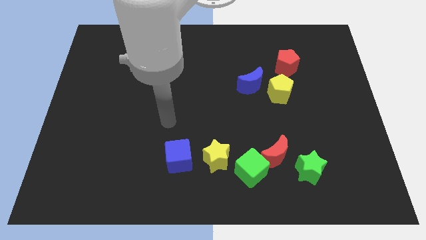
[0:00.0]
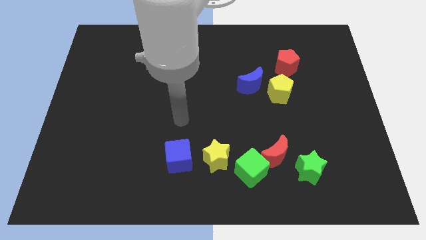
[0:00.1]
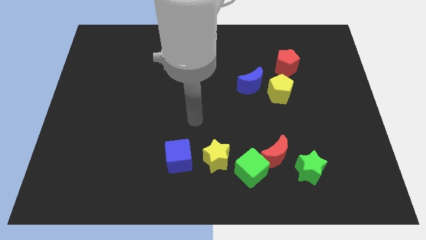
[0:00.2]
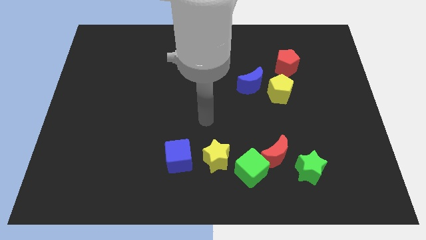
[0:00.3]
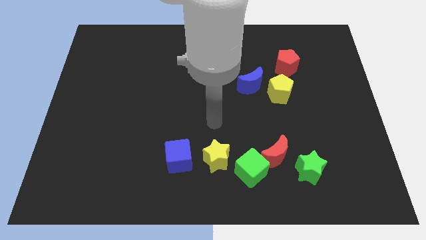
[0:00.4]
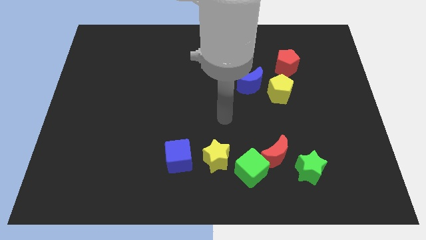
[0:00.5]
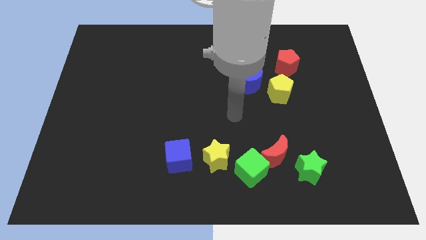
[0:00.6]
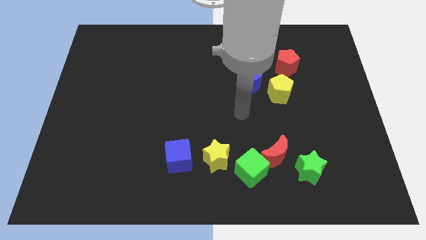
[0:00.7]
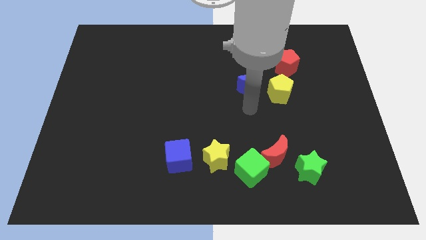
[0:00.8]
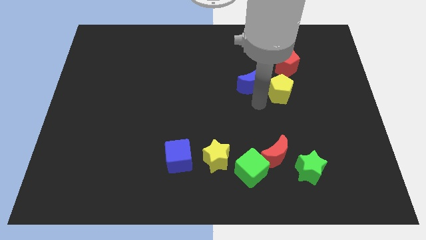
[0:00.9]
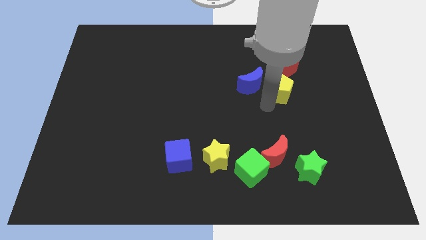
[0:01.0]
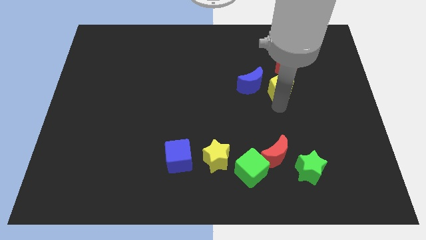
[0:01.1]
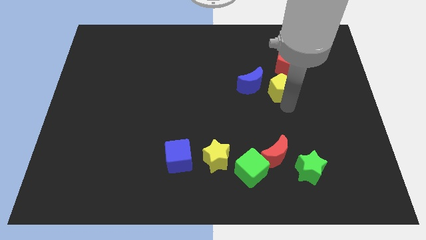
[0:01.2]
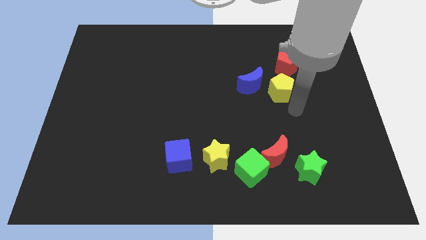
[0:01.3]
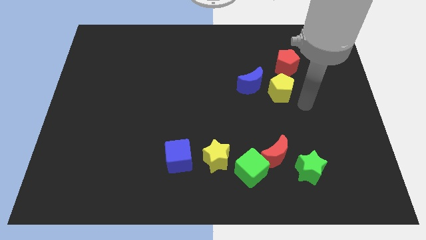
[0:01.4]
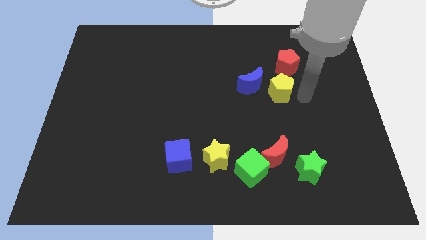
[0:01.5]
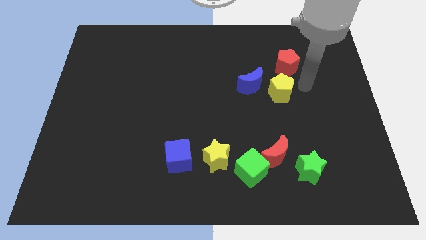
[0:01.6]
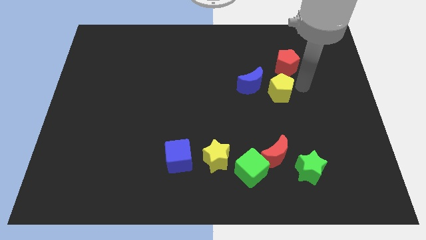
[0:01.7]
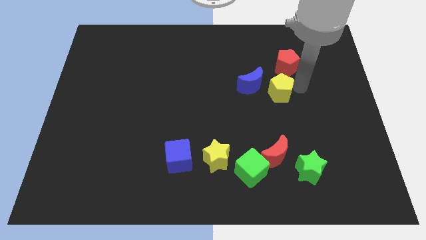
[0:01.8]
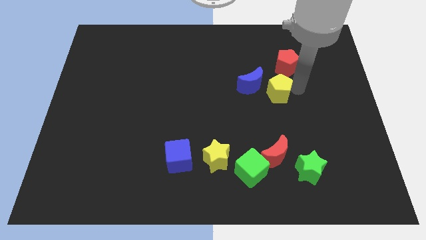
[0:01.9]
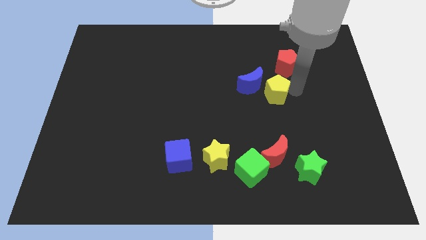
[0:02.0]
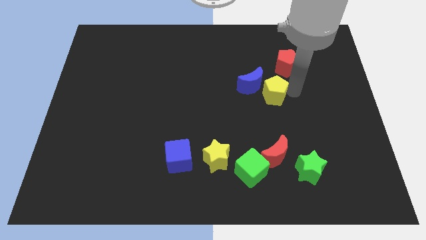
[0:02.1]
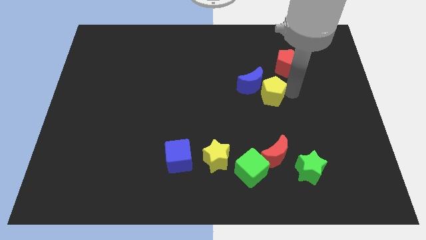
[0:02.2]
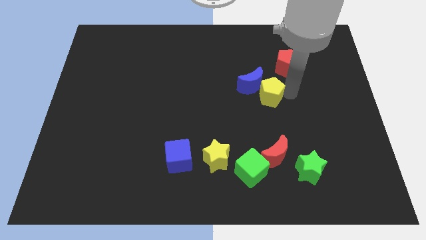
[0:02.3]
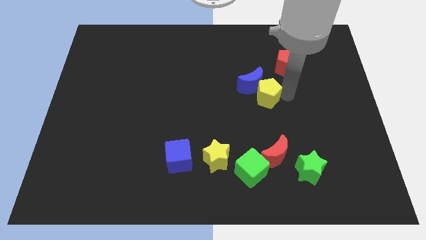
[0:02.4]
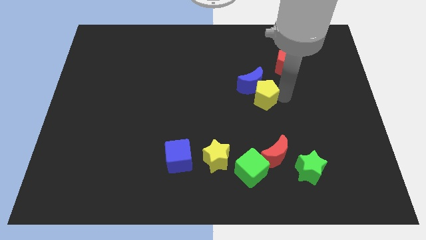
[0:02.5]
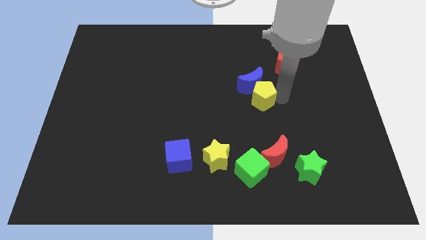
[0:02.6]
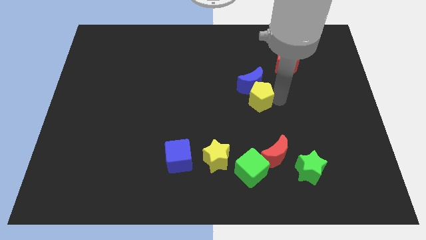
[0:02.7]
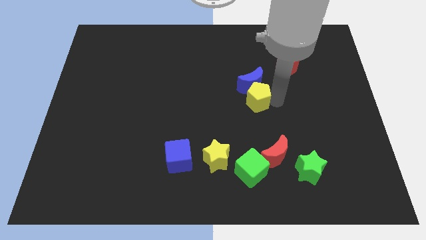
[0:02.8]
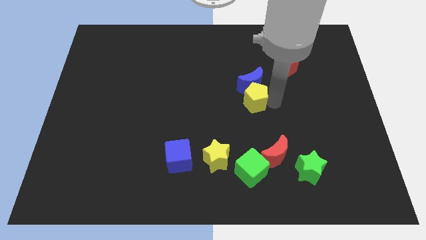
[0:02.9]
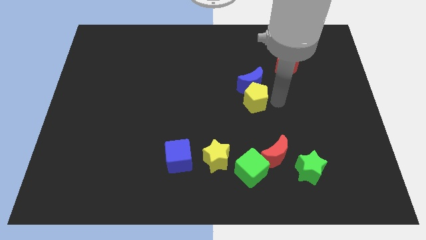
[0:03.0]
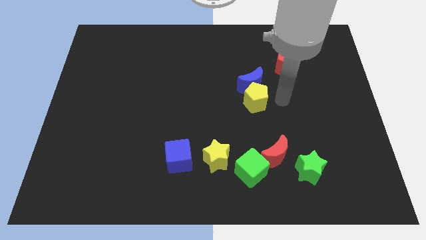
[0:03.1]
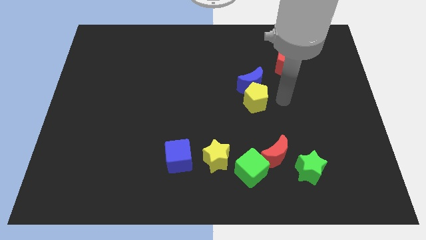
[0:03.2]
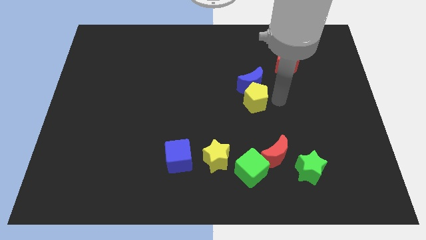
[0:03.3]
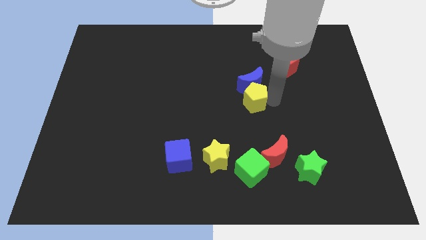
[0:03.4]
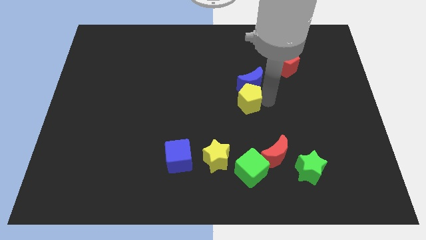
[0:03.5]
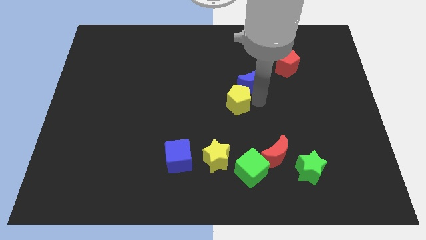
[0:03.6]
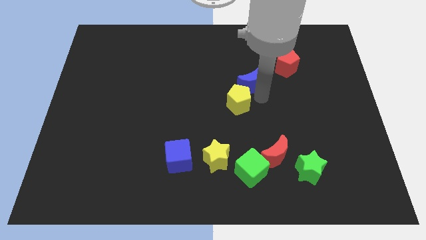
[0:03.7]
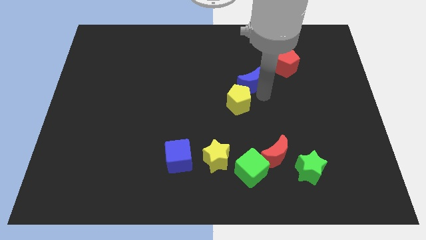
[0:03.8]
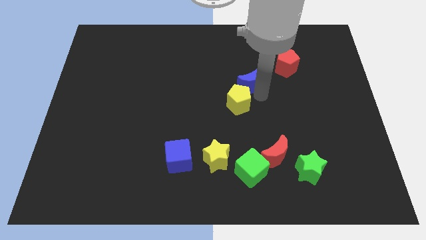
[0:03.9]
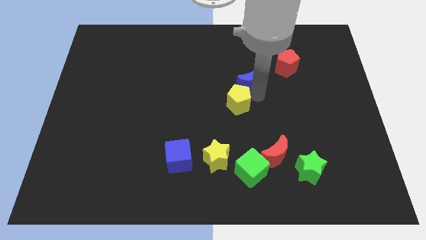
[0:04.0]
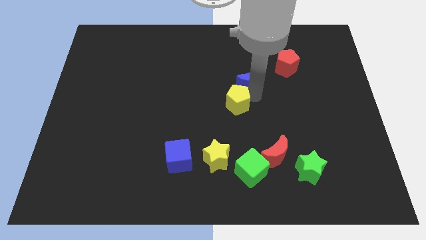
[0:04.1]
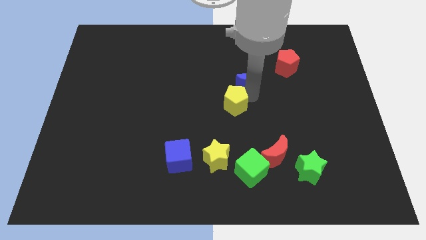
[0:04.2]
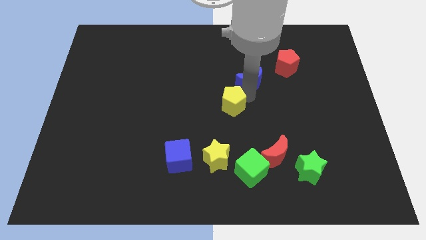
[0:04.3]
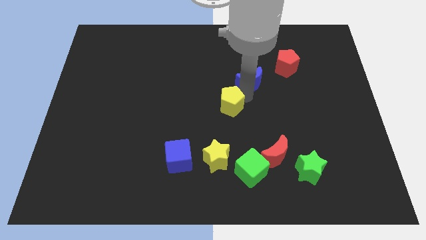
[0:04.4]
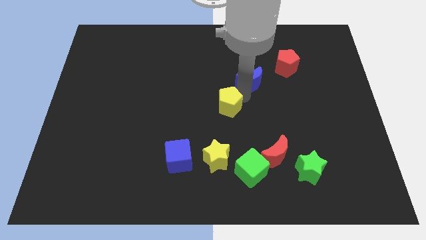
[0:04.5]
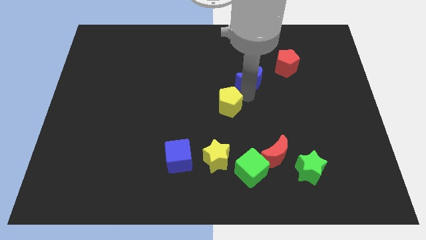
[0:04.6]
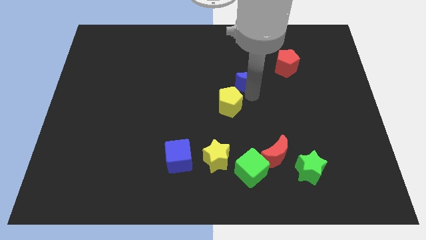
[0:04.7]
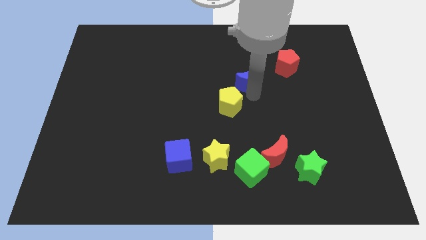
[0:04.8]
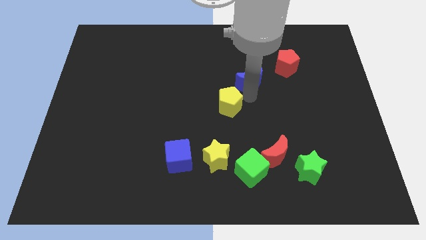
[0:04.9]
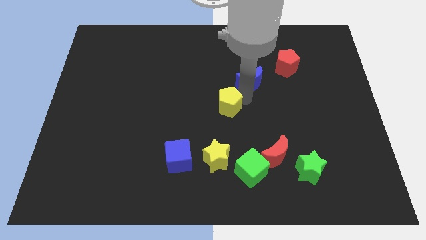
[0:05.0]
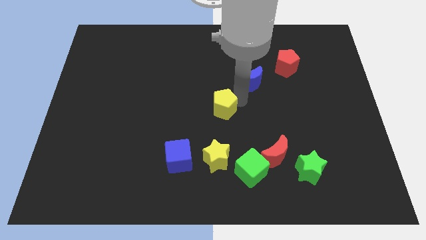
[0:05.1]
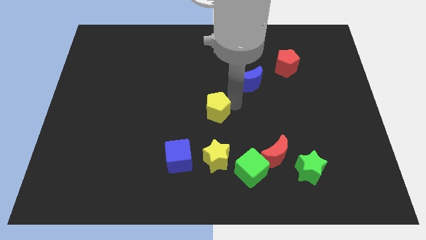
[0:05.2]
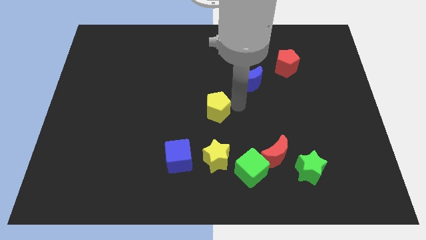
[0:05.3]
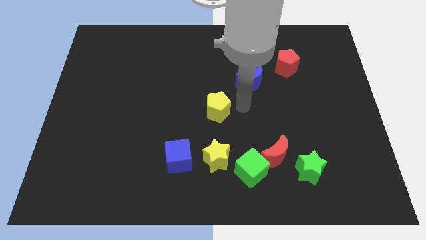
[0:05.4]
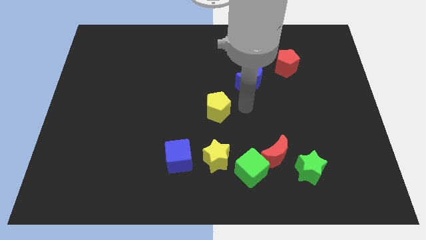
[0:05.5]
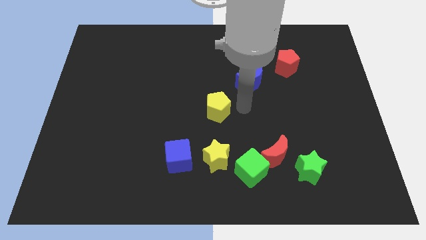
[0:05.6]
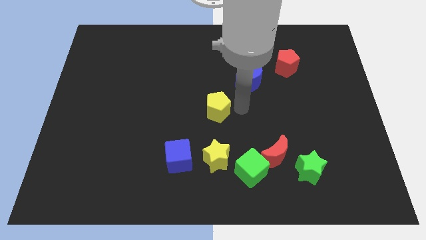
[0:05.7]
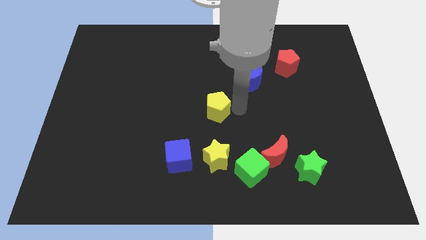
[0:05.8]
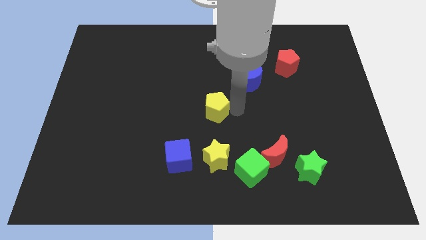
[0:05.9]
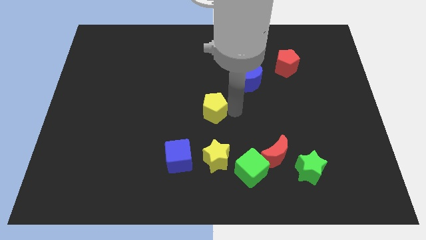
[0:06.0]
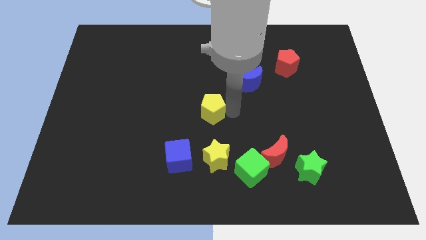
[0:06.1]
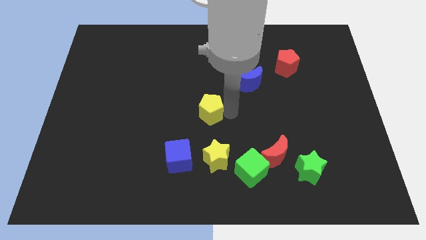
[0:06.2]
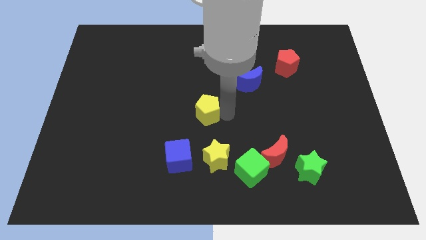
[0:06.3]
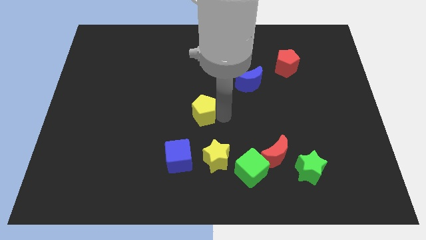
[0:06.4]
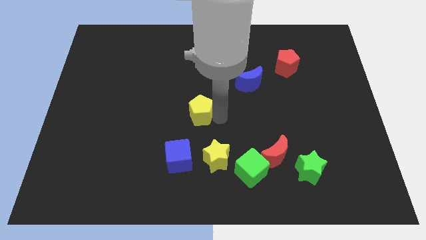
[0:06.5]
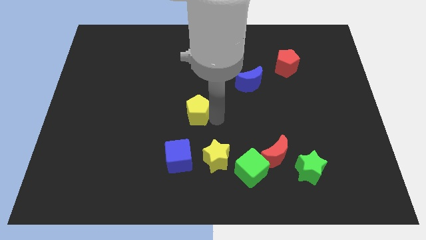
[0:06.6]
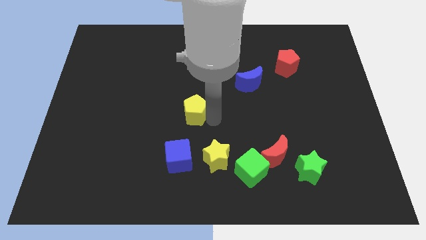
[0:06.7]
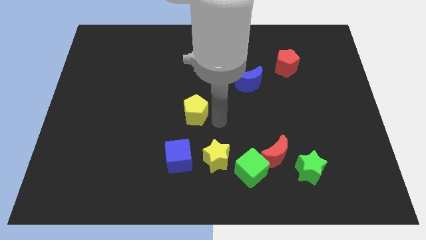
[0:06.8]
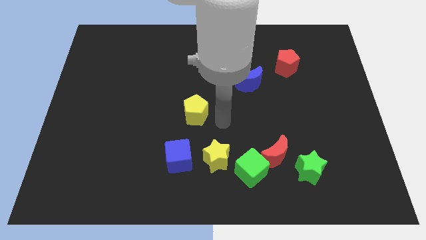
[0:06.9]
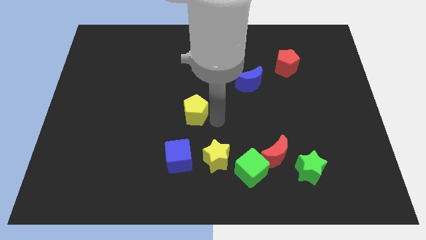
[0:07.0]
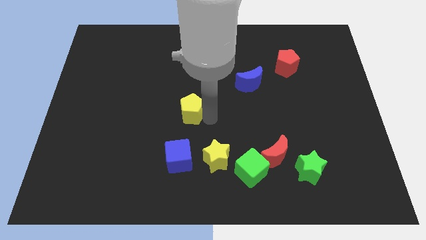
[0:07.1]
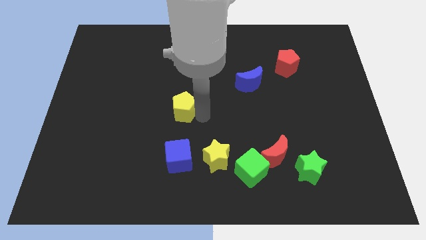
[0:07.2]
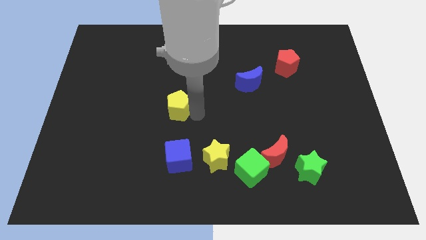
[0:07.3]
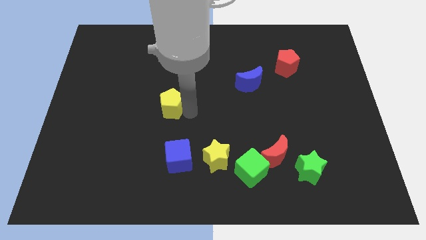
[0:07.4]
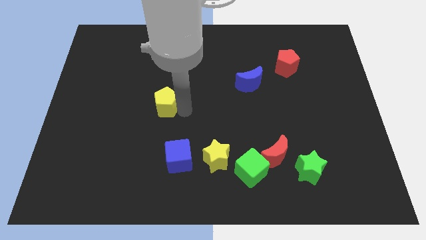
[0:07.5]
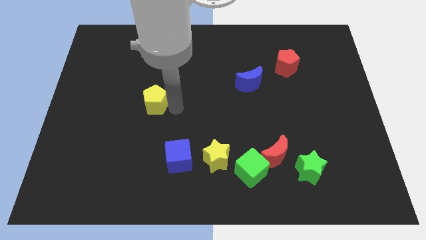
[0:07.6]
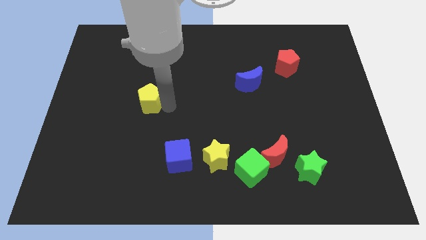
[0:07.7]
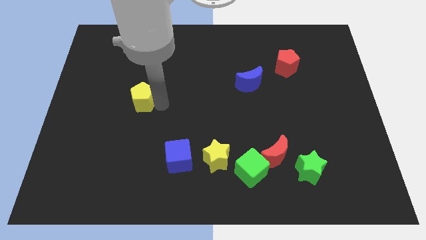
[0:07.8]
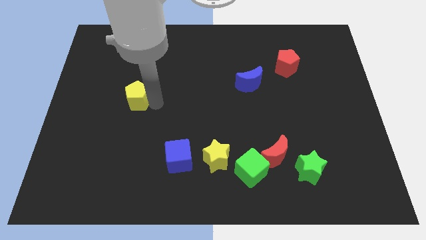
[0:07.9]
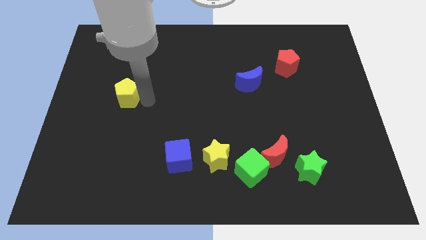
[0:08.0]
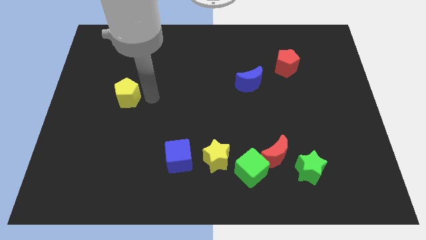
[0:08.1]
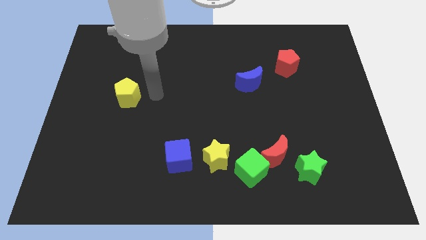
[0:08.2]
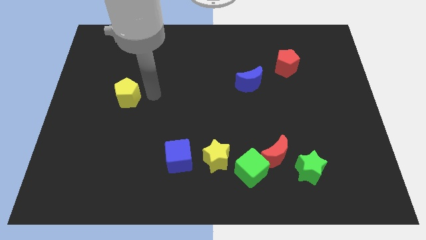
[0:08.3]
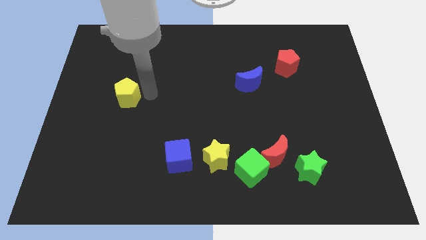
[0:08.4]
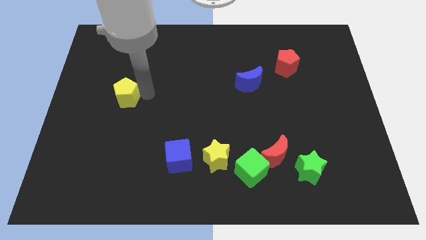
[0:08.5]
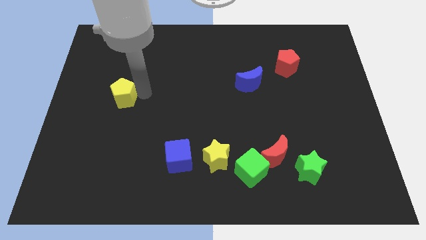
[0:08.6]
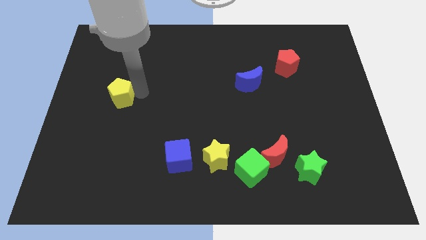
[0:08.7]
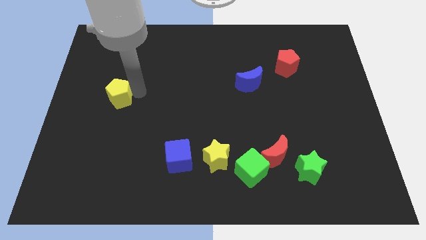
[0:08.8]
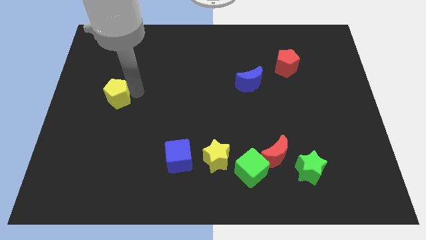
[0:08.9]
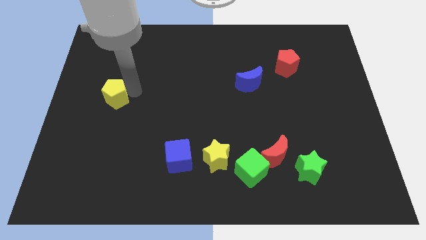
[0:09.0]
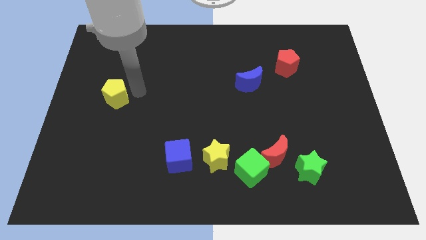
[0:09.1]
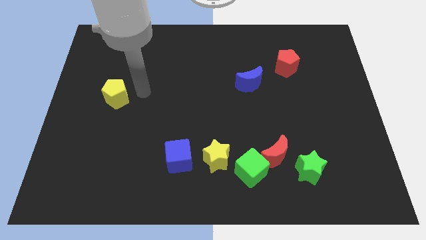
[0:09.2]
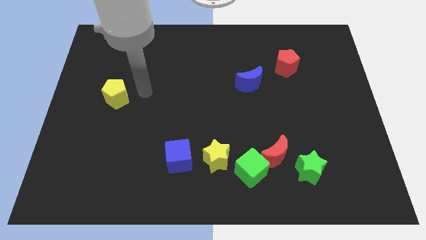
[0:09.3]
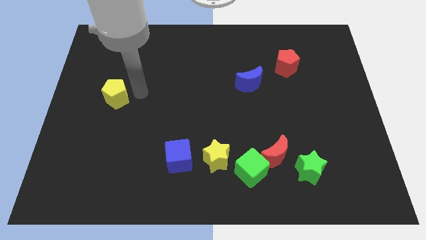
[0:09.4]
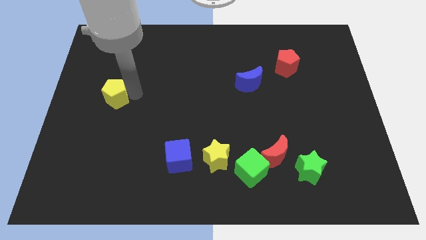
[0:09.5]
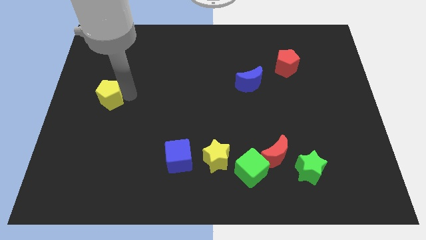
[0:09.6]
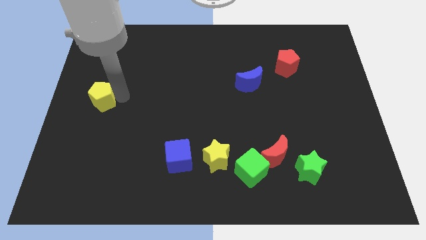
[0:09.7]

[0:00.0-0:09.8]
push the yellow pentagon to the left side of the board
